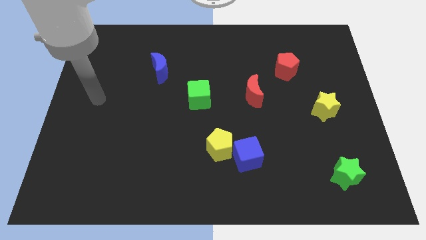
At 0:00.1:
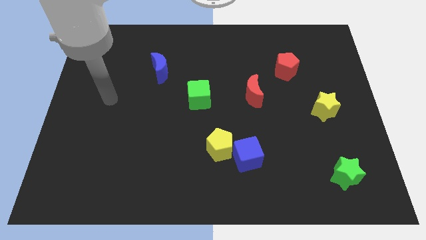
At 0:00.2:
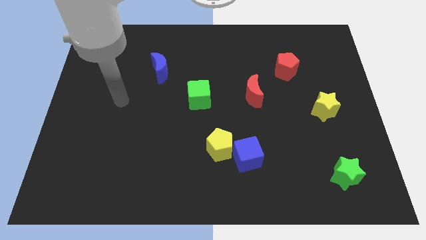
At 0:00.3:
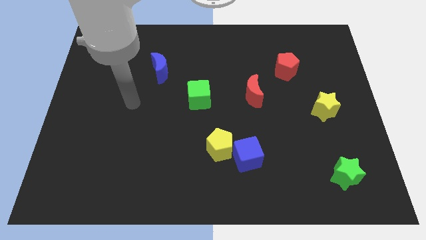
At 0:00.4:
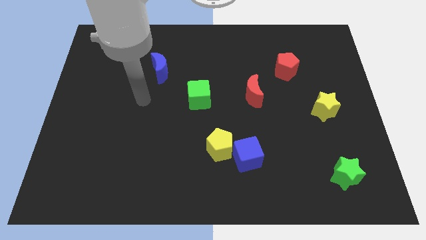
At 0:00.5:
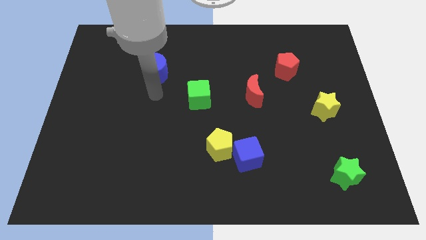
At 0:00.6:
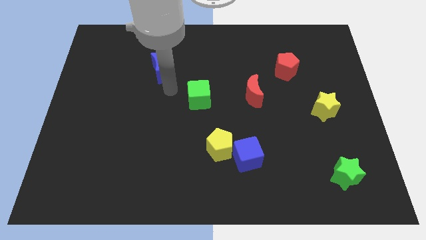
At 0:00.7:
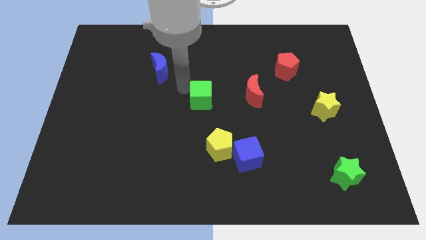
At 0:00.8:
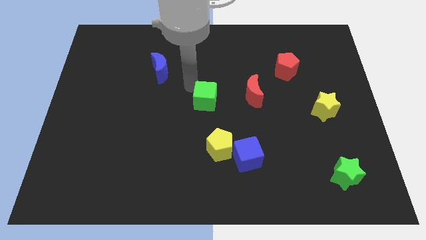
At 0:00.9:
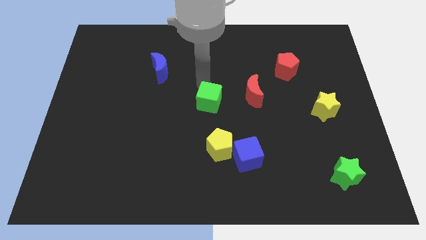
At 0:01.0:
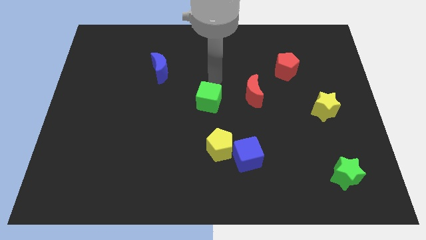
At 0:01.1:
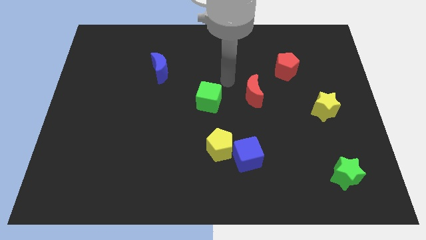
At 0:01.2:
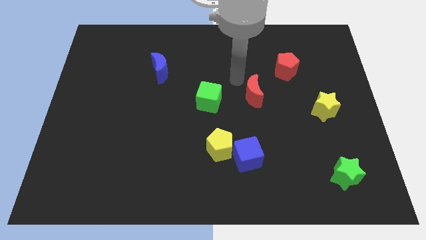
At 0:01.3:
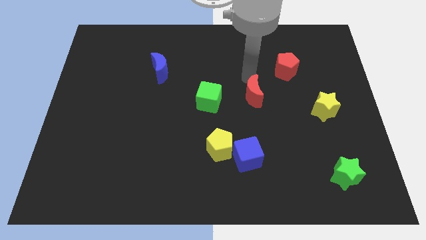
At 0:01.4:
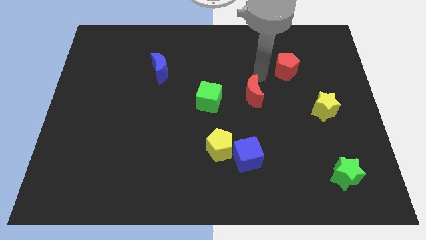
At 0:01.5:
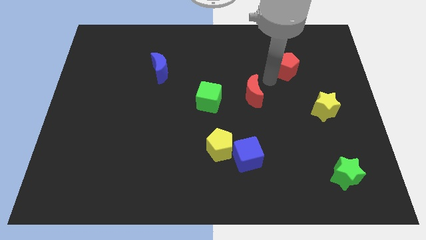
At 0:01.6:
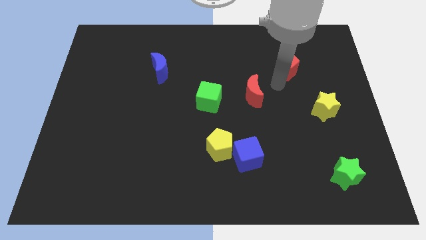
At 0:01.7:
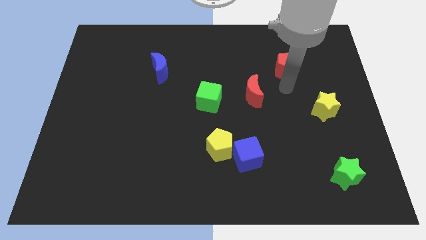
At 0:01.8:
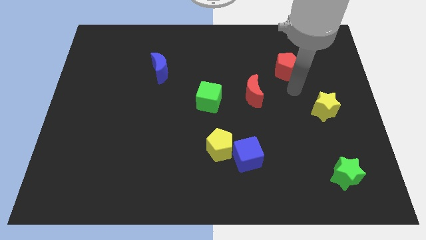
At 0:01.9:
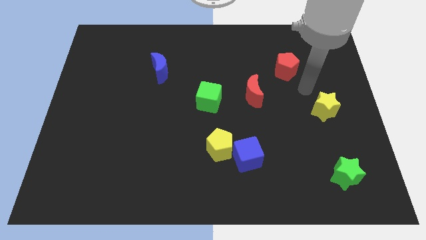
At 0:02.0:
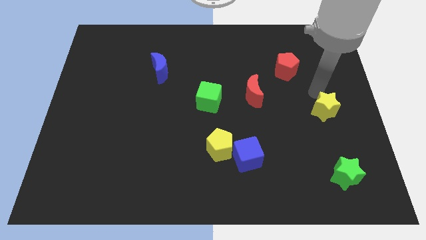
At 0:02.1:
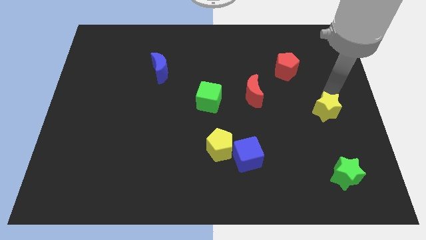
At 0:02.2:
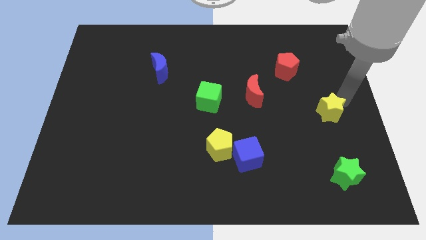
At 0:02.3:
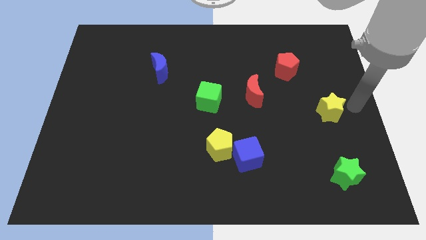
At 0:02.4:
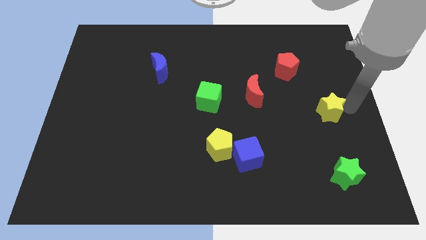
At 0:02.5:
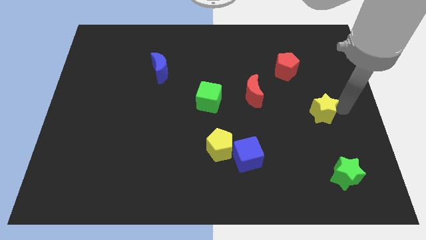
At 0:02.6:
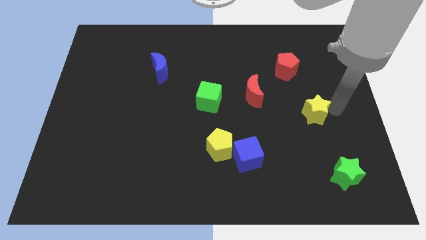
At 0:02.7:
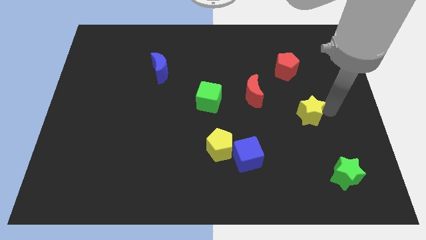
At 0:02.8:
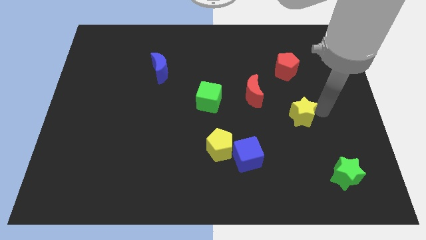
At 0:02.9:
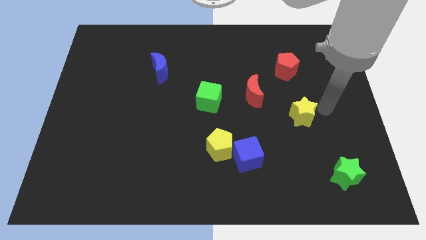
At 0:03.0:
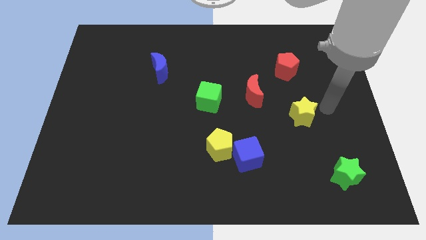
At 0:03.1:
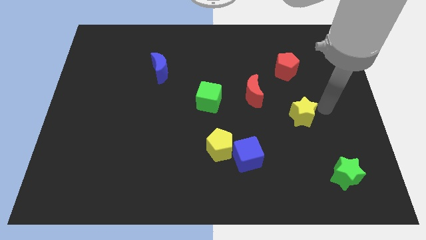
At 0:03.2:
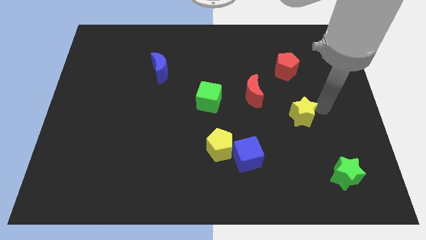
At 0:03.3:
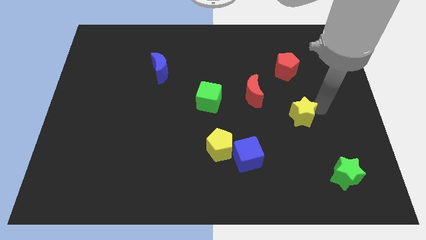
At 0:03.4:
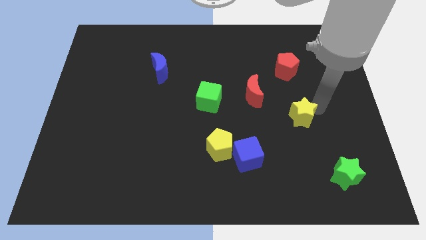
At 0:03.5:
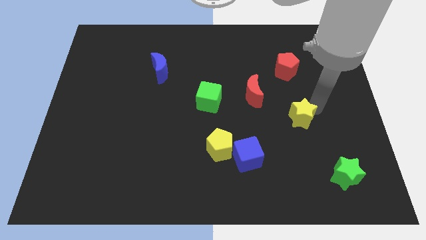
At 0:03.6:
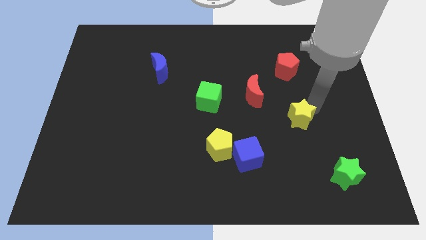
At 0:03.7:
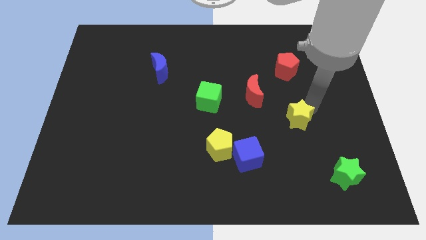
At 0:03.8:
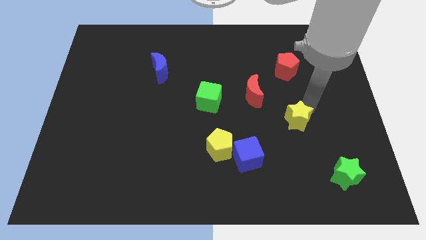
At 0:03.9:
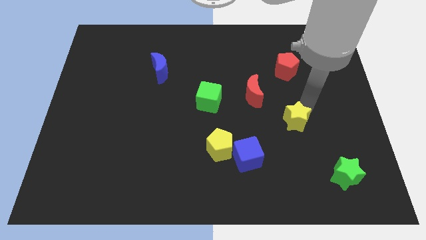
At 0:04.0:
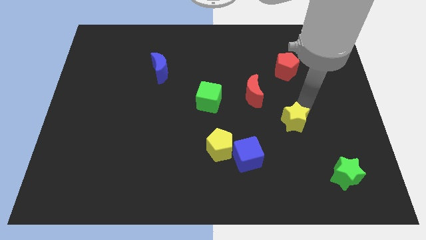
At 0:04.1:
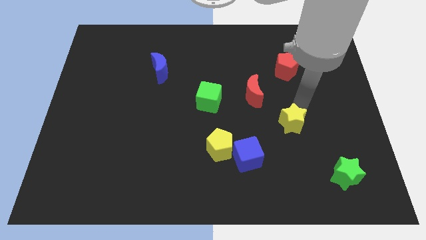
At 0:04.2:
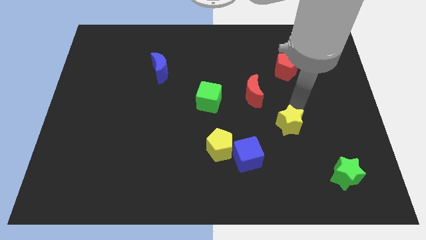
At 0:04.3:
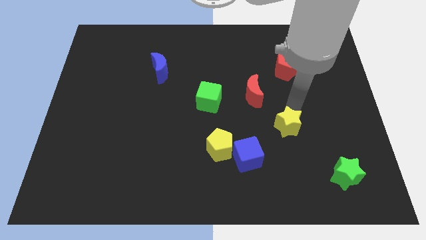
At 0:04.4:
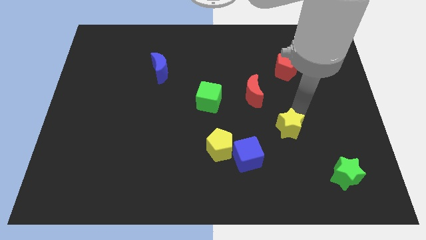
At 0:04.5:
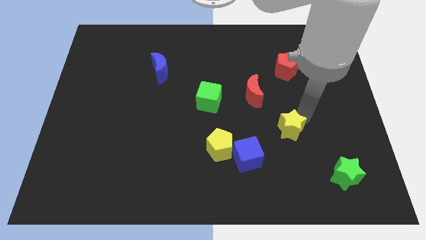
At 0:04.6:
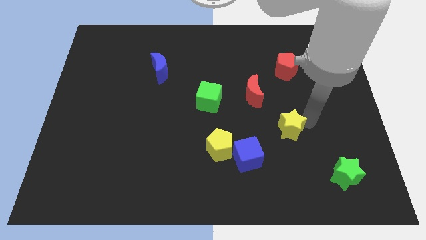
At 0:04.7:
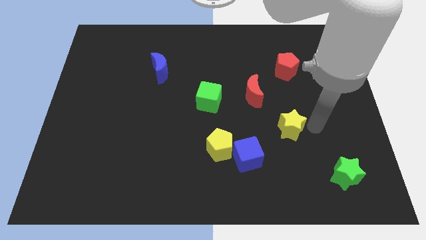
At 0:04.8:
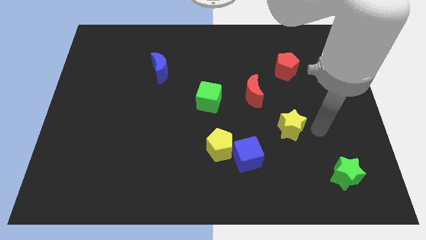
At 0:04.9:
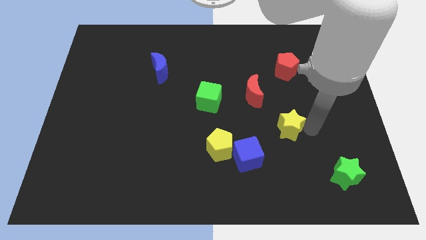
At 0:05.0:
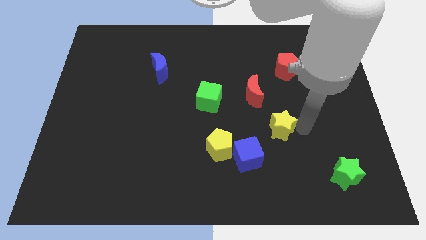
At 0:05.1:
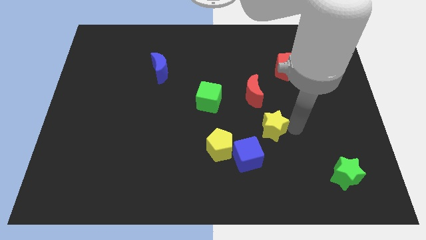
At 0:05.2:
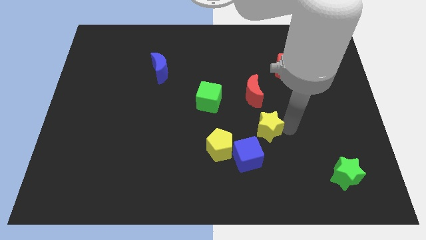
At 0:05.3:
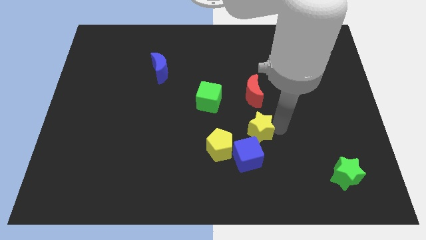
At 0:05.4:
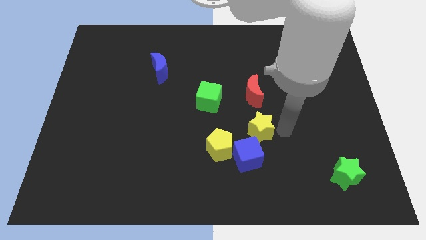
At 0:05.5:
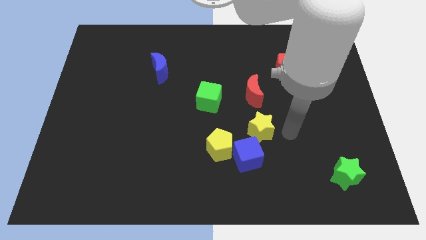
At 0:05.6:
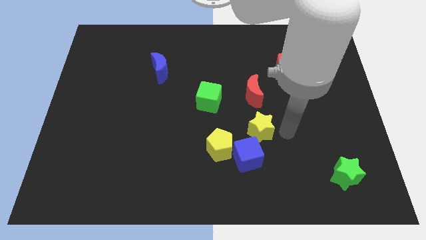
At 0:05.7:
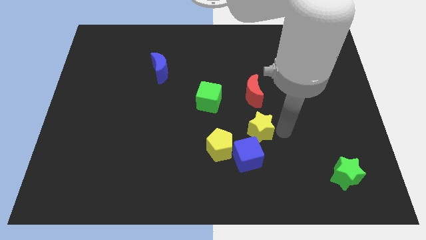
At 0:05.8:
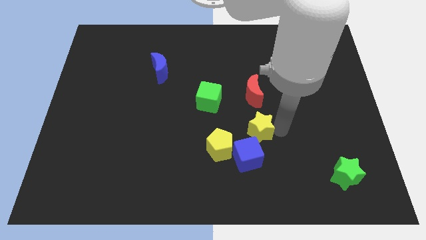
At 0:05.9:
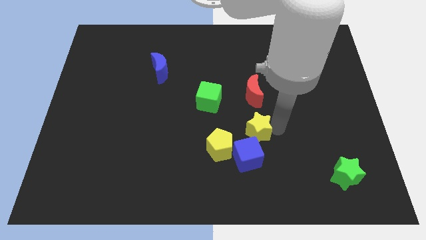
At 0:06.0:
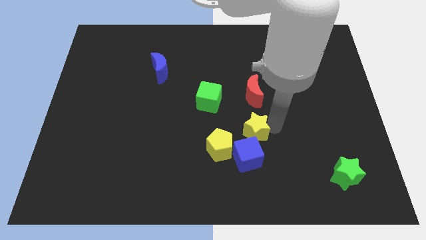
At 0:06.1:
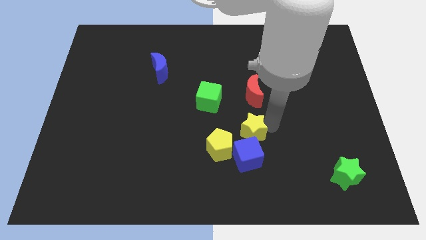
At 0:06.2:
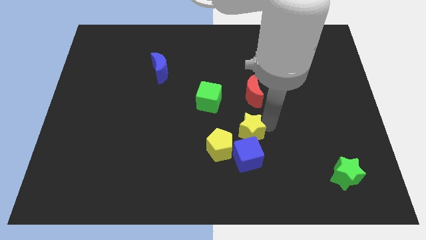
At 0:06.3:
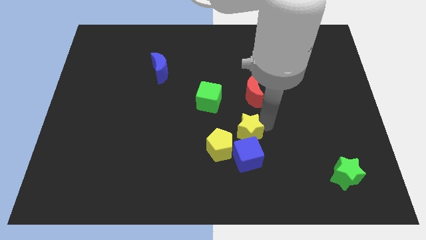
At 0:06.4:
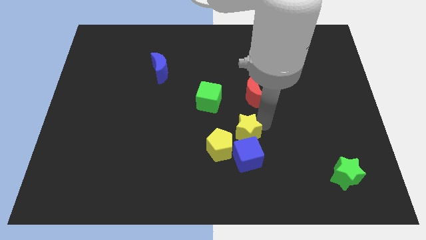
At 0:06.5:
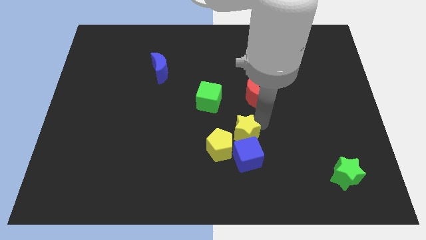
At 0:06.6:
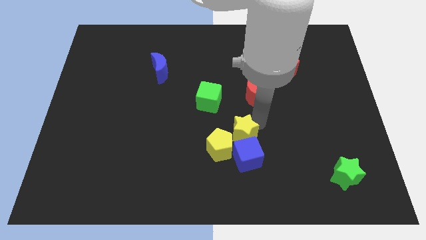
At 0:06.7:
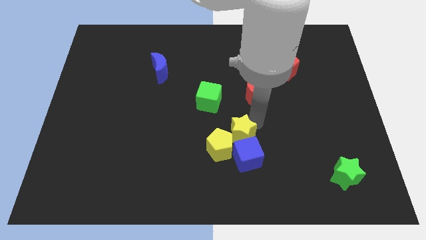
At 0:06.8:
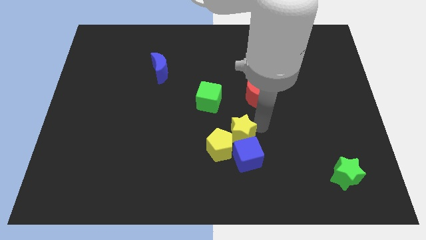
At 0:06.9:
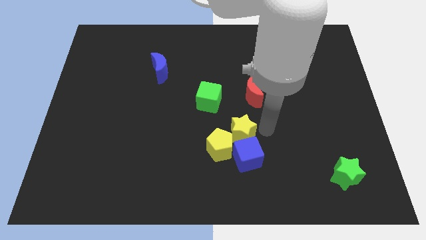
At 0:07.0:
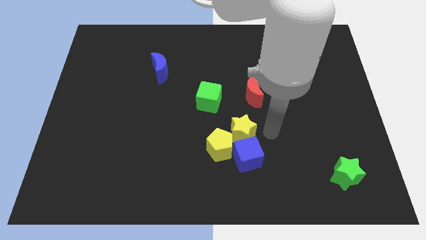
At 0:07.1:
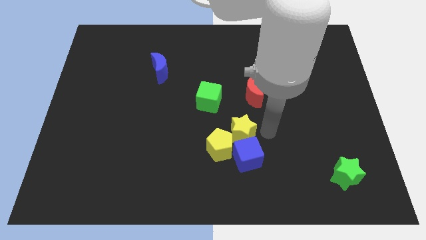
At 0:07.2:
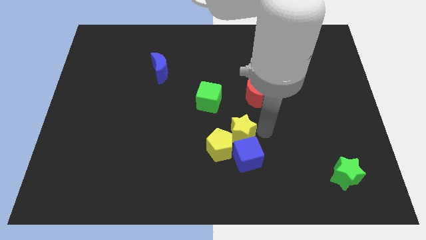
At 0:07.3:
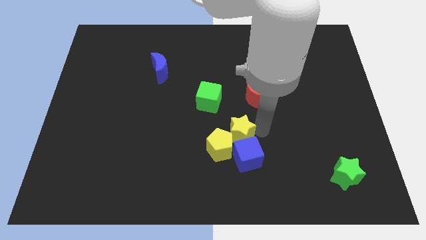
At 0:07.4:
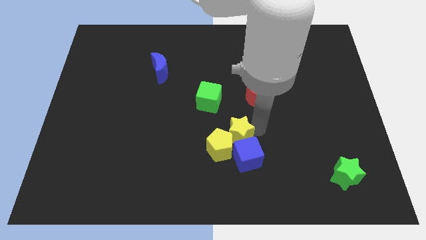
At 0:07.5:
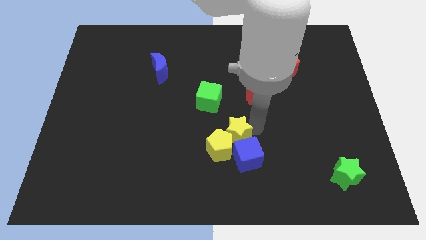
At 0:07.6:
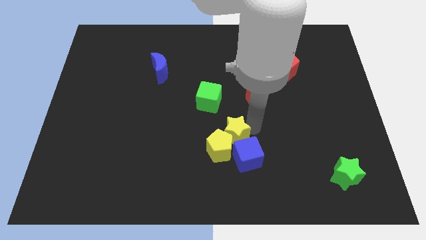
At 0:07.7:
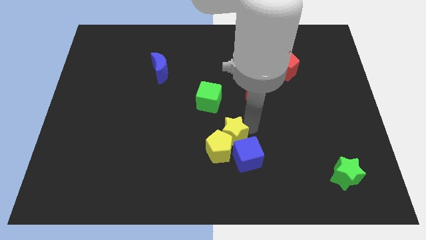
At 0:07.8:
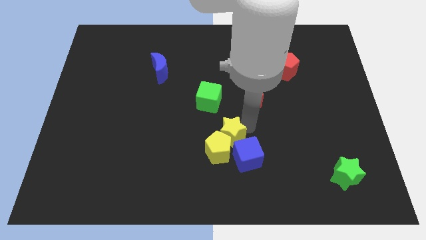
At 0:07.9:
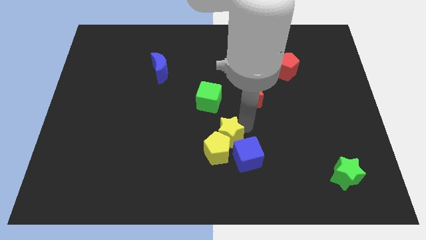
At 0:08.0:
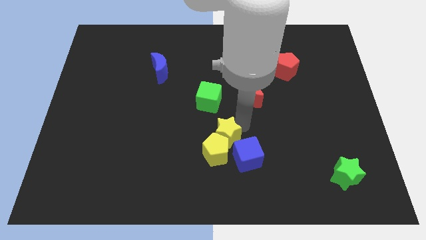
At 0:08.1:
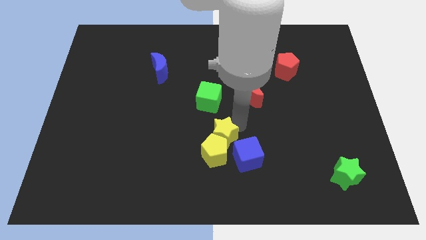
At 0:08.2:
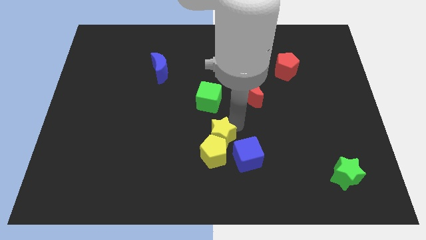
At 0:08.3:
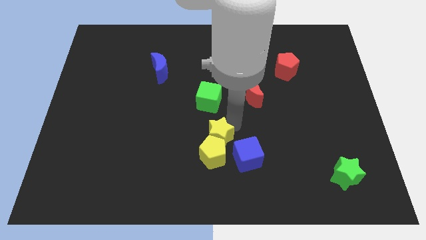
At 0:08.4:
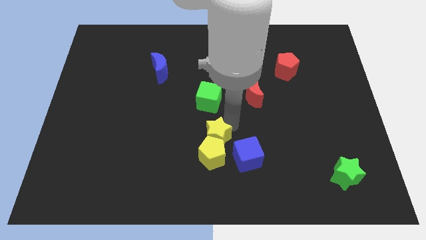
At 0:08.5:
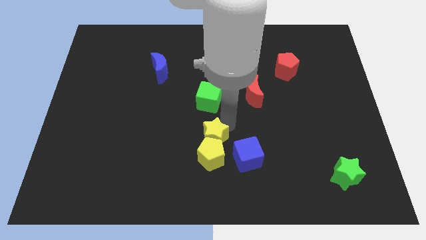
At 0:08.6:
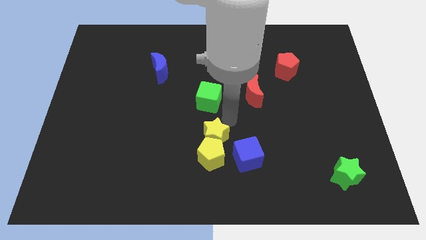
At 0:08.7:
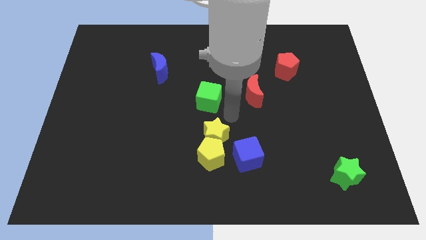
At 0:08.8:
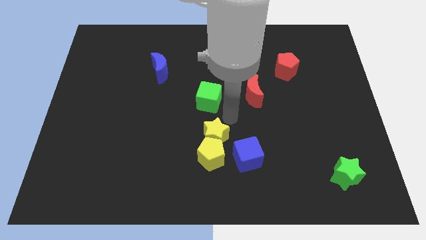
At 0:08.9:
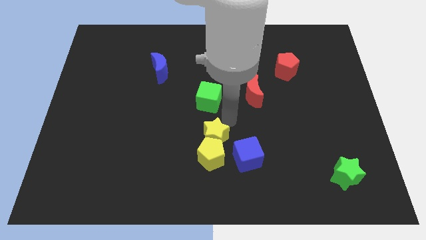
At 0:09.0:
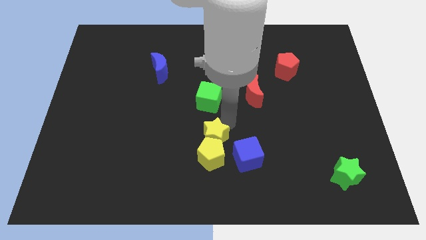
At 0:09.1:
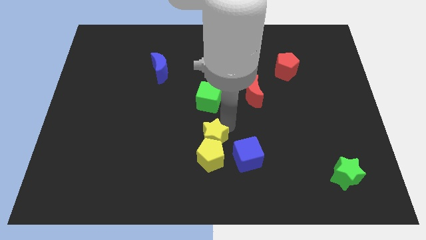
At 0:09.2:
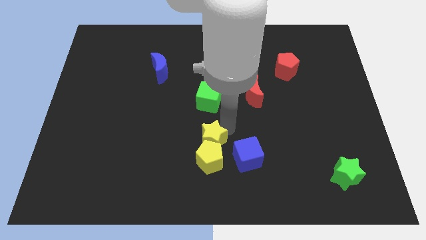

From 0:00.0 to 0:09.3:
slide the yellow star to the left side of the blue cube
